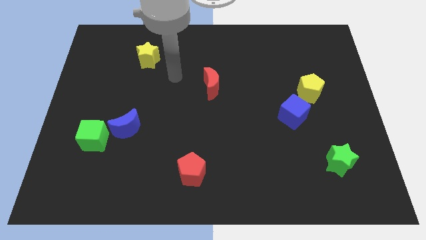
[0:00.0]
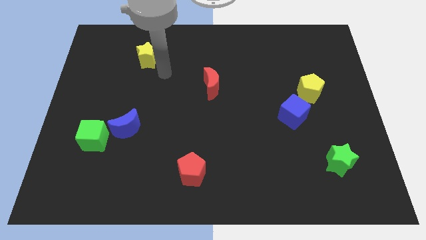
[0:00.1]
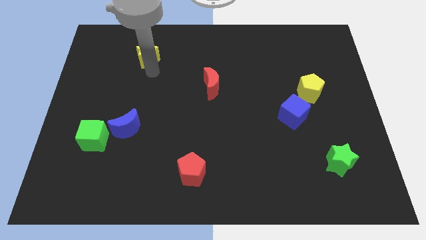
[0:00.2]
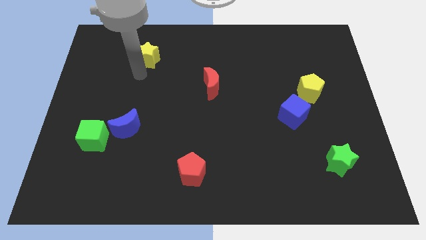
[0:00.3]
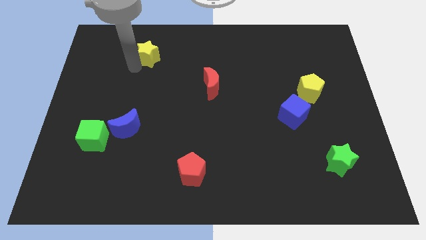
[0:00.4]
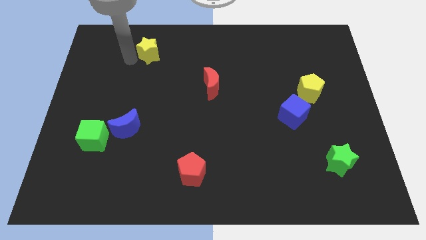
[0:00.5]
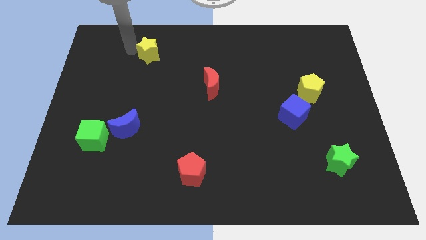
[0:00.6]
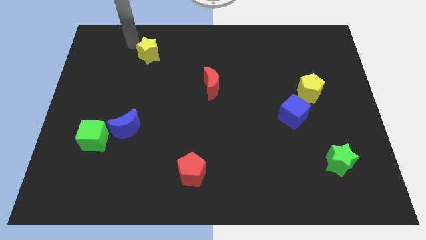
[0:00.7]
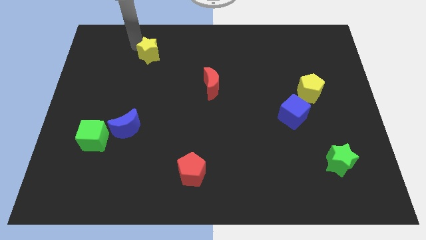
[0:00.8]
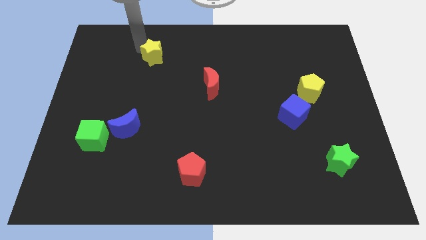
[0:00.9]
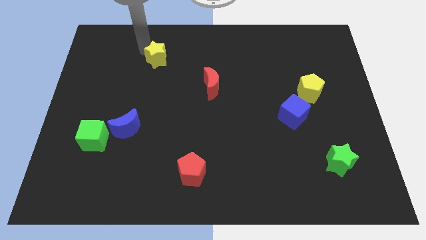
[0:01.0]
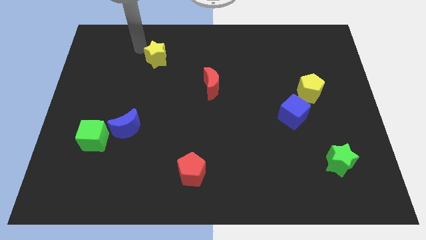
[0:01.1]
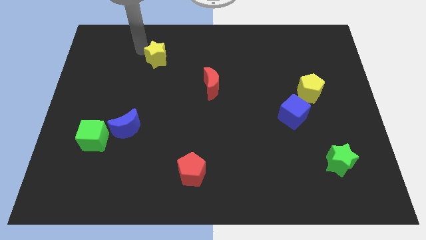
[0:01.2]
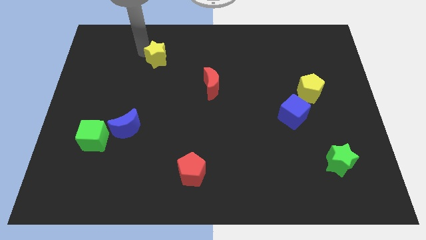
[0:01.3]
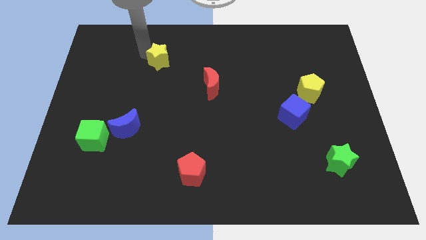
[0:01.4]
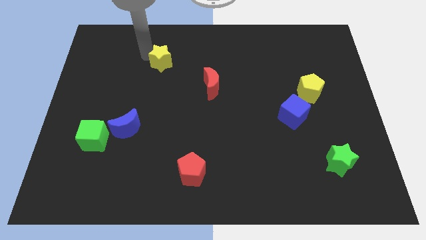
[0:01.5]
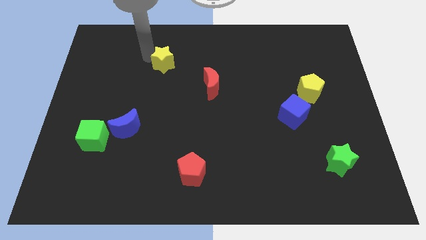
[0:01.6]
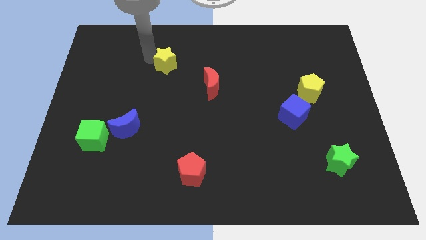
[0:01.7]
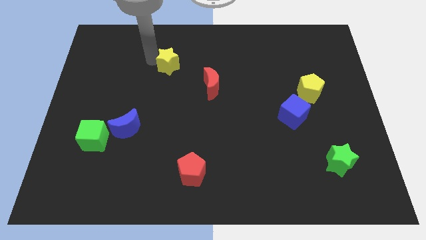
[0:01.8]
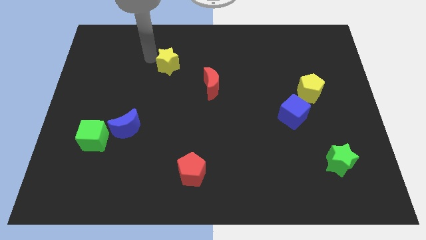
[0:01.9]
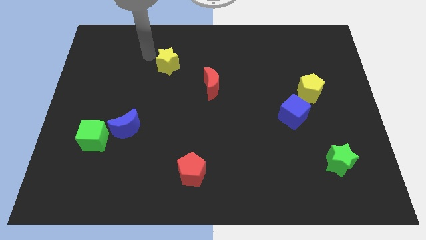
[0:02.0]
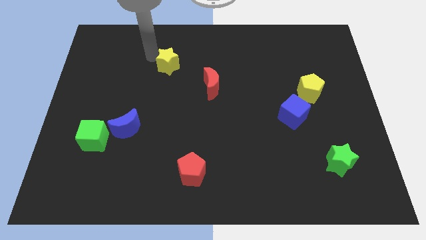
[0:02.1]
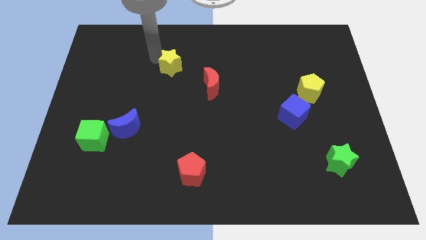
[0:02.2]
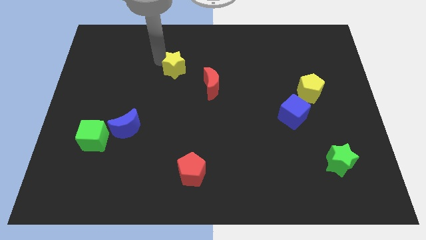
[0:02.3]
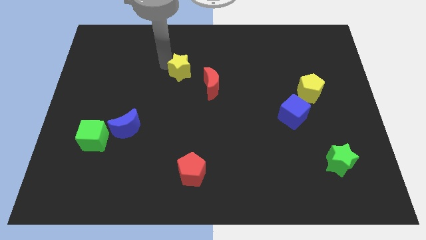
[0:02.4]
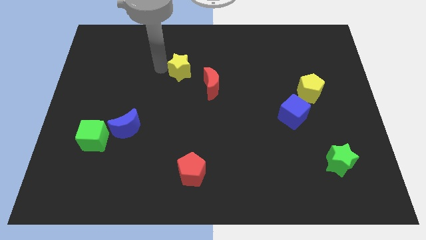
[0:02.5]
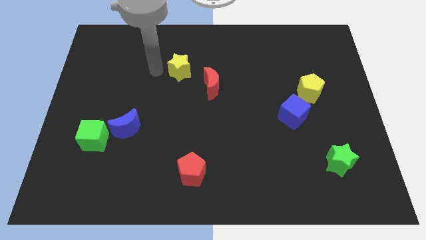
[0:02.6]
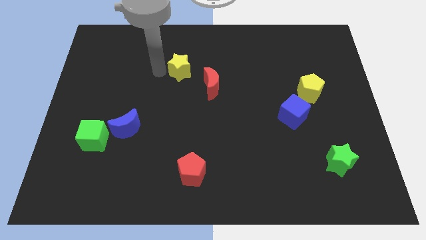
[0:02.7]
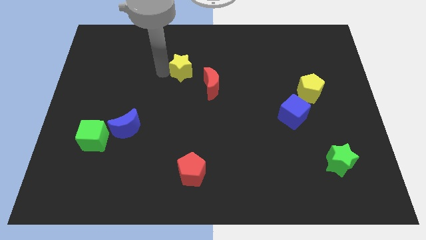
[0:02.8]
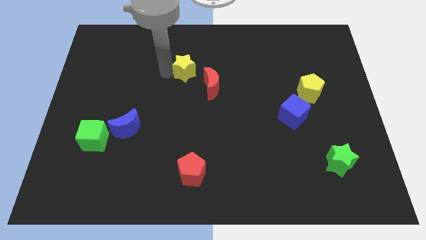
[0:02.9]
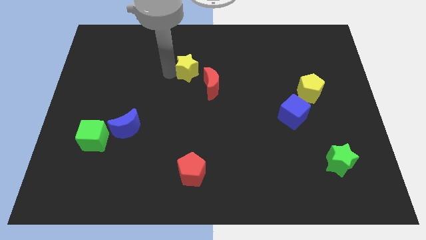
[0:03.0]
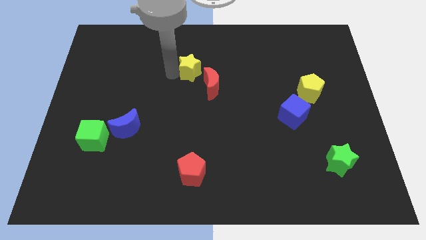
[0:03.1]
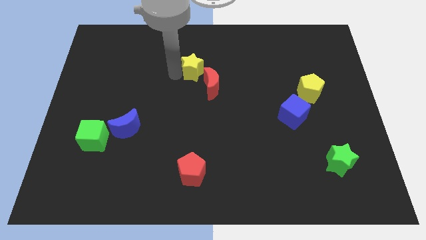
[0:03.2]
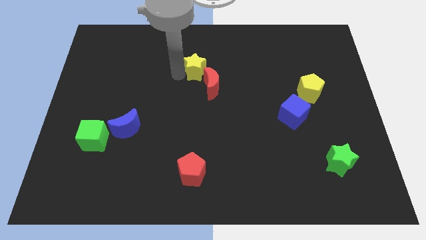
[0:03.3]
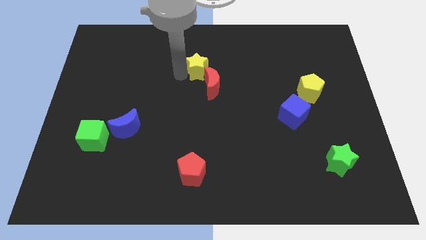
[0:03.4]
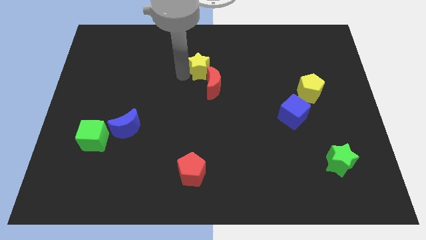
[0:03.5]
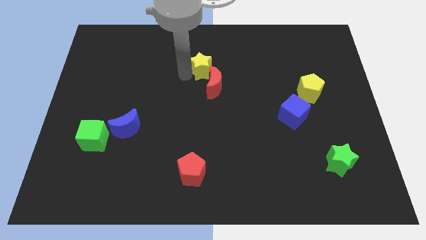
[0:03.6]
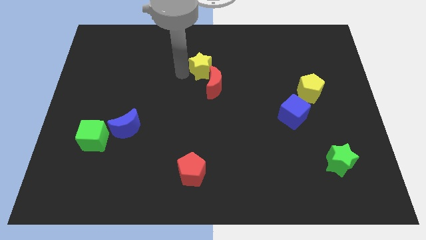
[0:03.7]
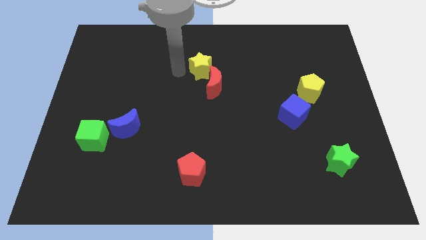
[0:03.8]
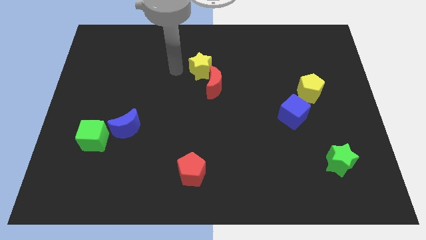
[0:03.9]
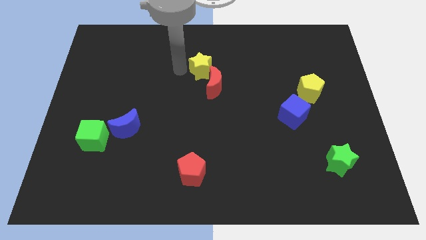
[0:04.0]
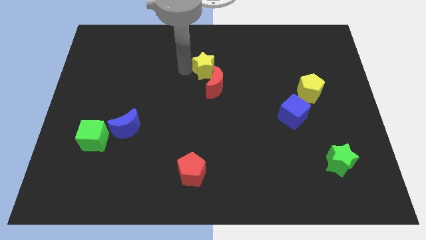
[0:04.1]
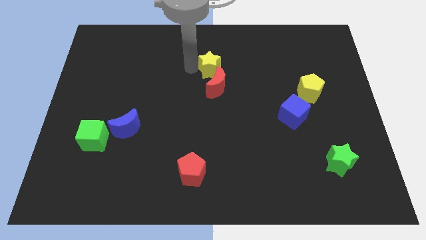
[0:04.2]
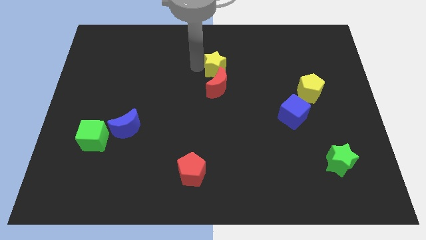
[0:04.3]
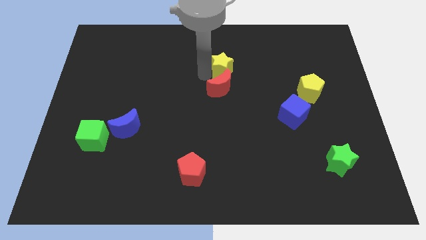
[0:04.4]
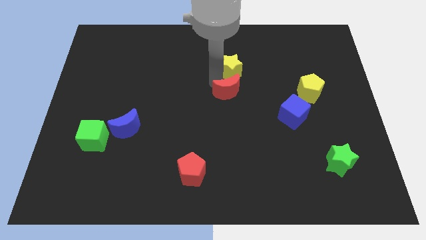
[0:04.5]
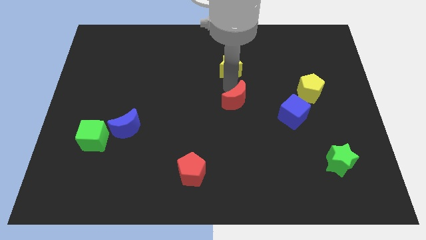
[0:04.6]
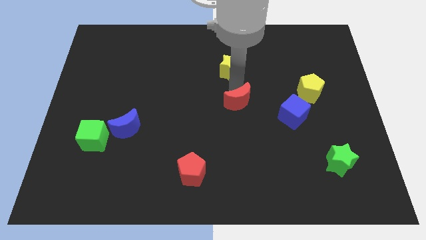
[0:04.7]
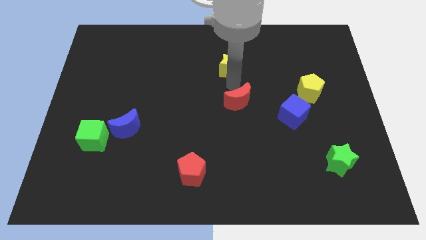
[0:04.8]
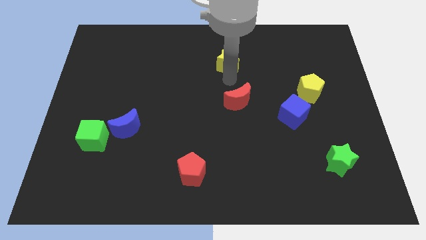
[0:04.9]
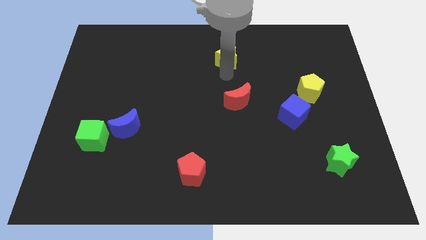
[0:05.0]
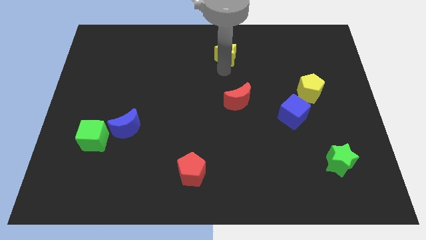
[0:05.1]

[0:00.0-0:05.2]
move the yellow star to the top side
